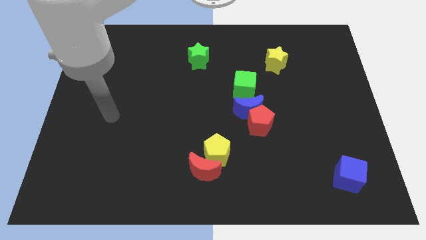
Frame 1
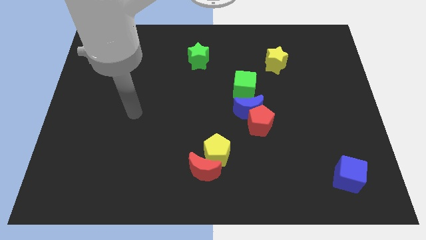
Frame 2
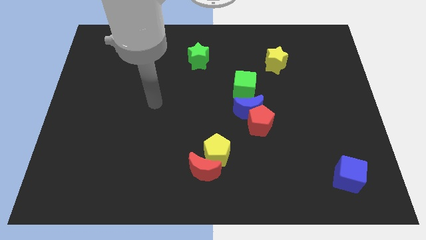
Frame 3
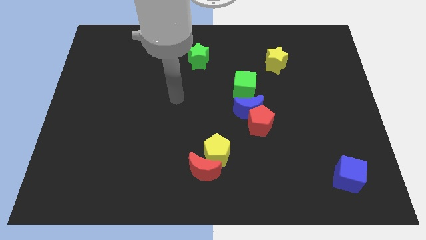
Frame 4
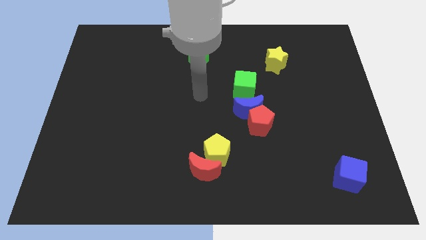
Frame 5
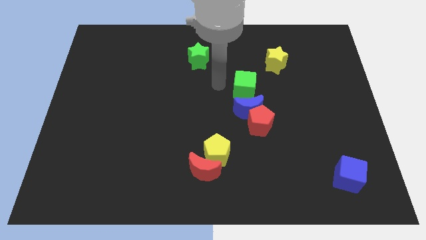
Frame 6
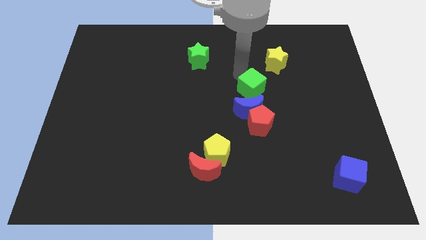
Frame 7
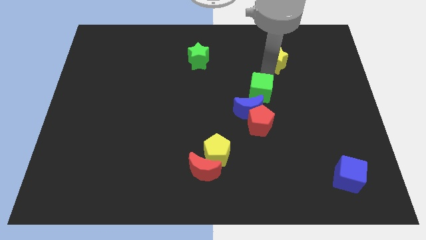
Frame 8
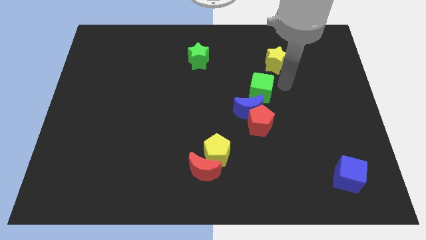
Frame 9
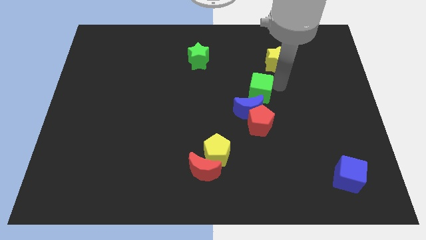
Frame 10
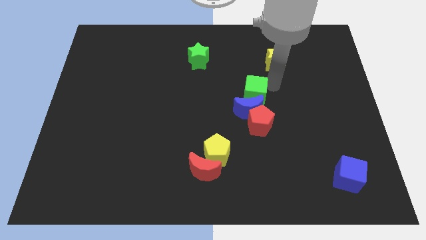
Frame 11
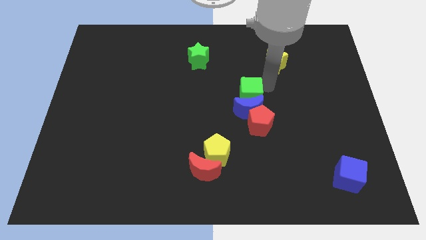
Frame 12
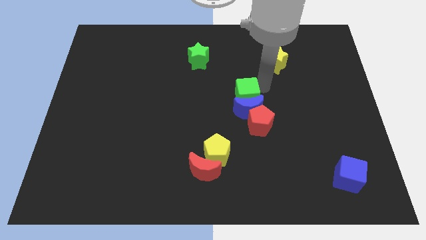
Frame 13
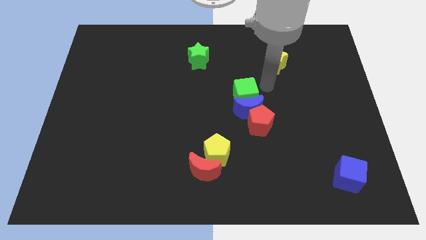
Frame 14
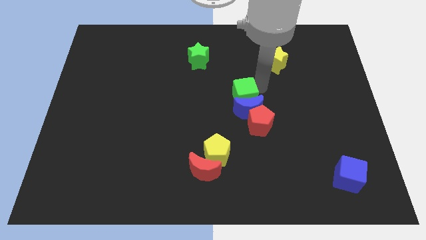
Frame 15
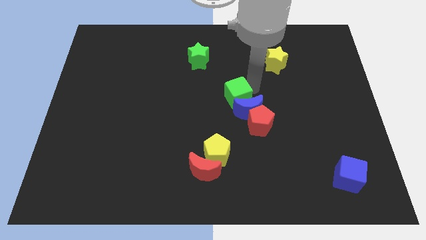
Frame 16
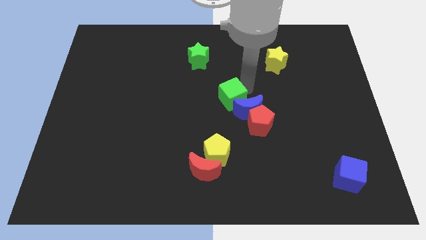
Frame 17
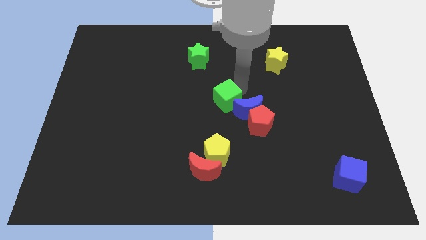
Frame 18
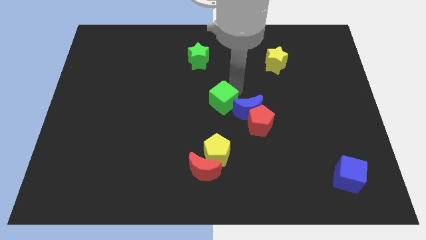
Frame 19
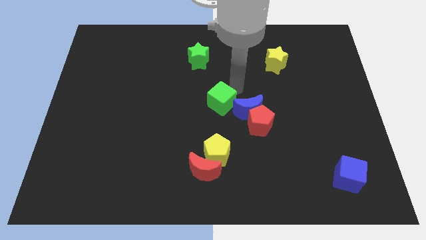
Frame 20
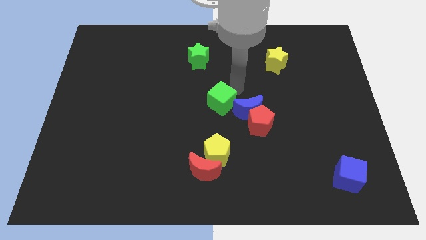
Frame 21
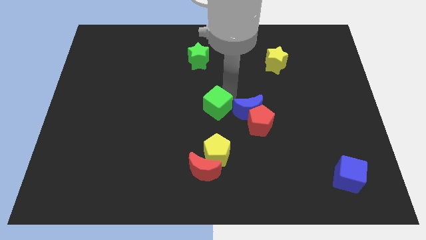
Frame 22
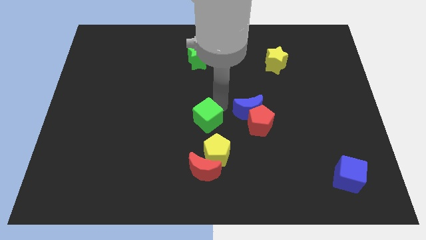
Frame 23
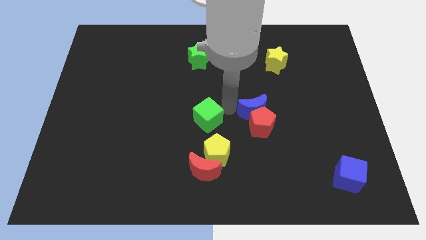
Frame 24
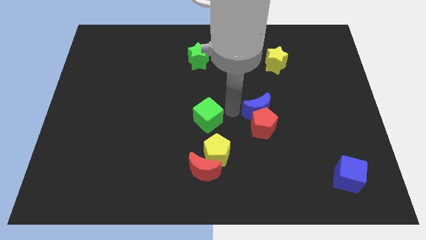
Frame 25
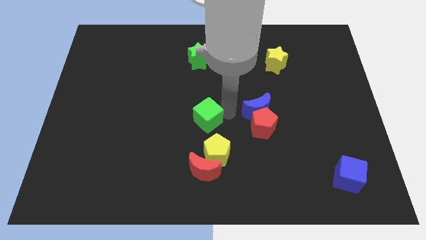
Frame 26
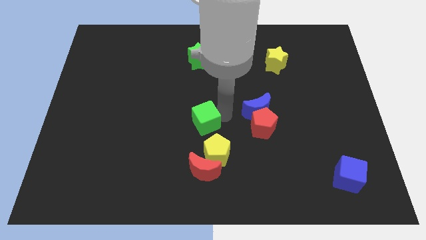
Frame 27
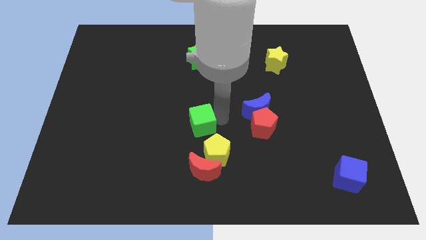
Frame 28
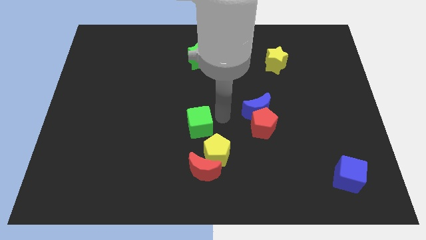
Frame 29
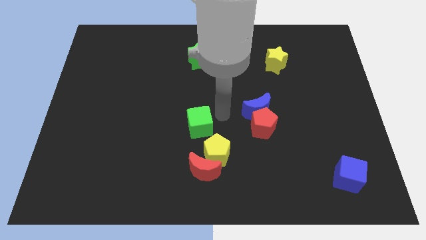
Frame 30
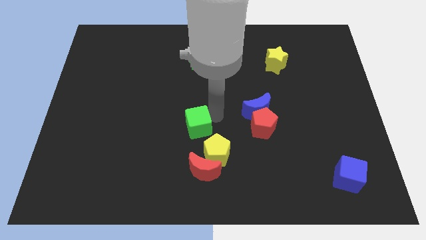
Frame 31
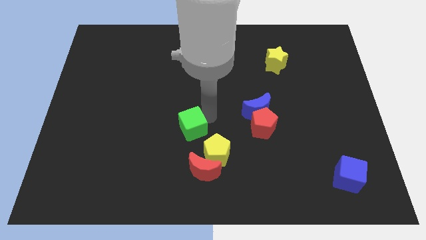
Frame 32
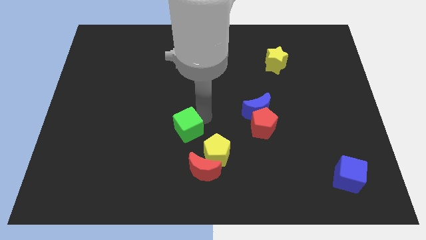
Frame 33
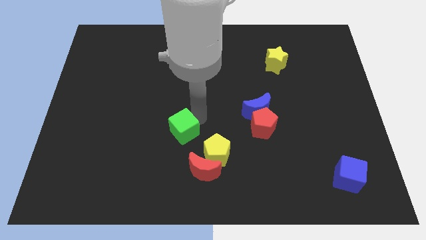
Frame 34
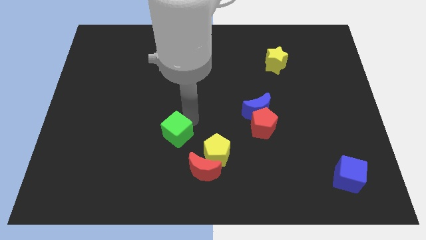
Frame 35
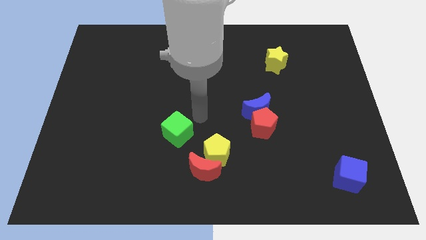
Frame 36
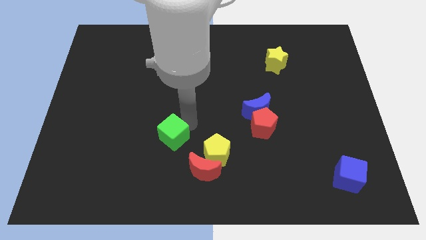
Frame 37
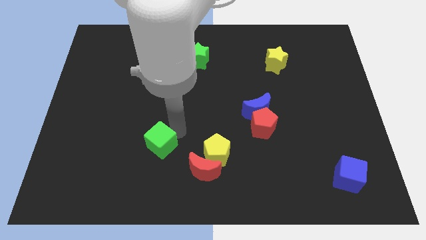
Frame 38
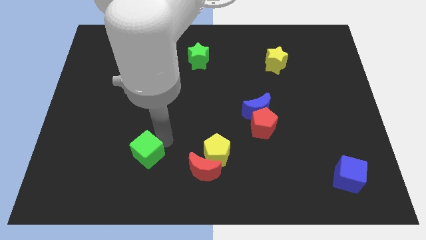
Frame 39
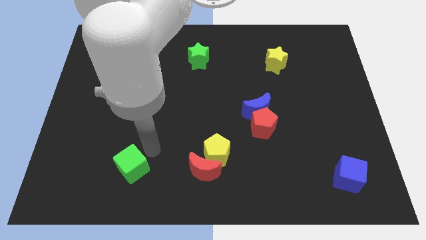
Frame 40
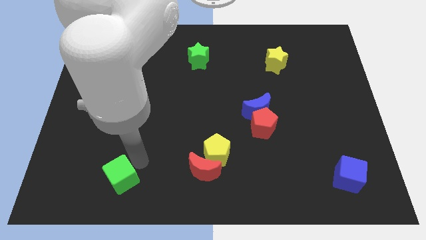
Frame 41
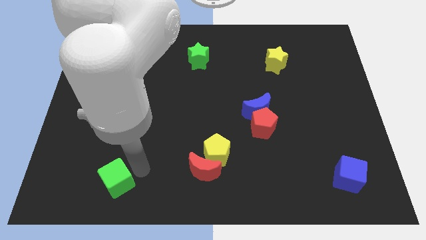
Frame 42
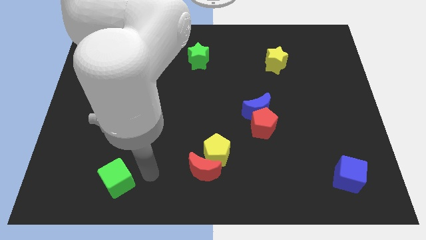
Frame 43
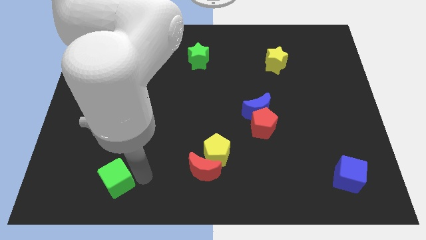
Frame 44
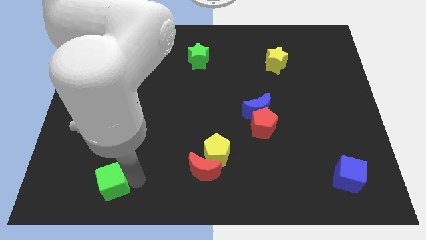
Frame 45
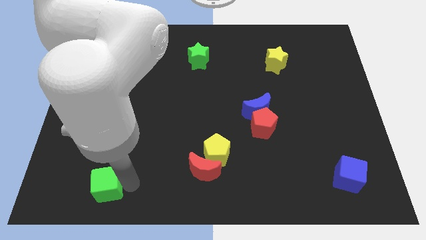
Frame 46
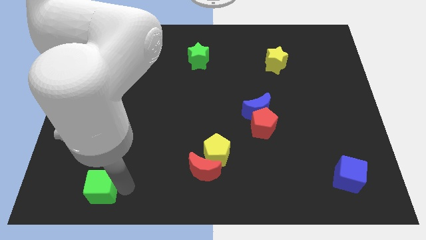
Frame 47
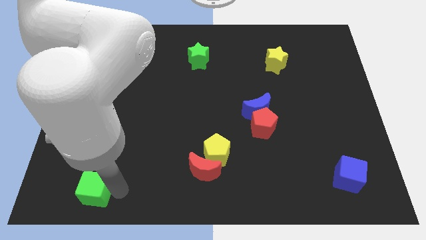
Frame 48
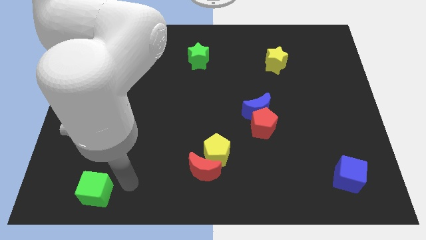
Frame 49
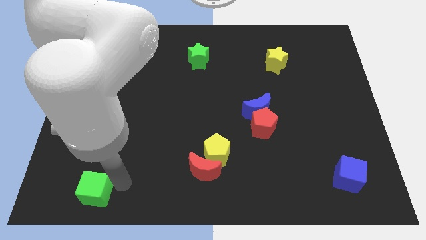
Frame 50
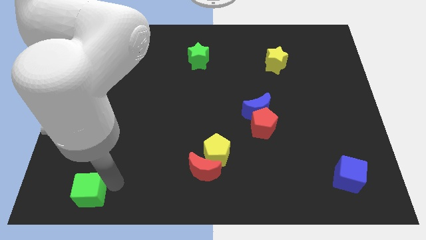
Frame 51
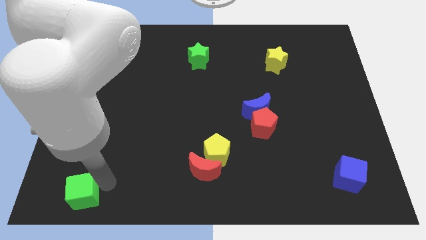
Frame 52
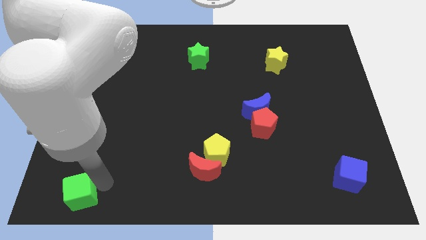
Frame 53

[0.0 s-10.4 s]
slide the green cube to the bottom left corner

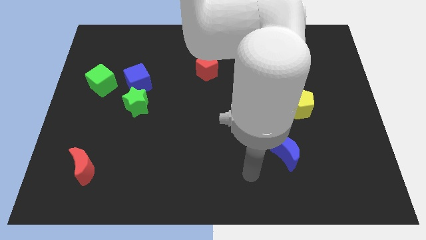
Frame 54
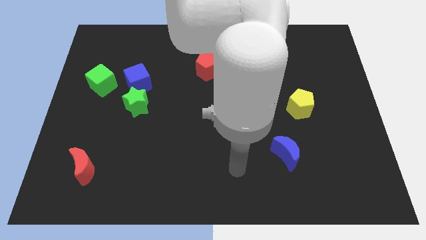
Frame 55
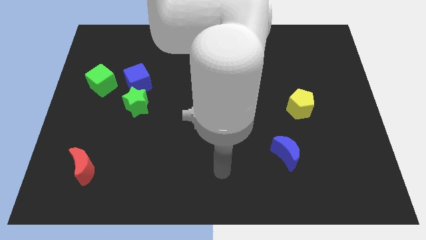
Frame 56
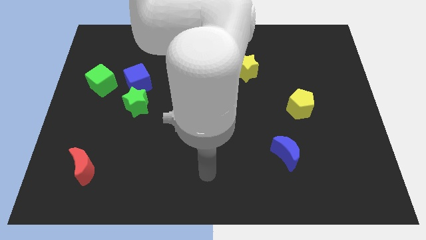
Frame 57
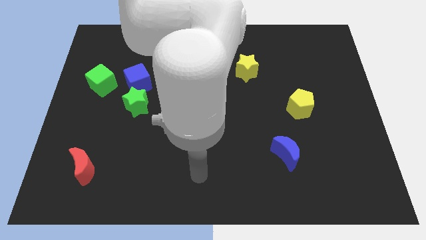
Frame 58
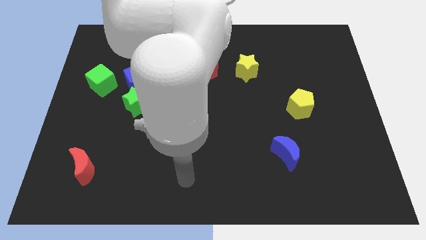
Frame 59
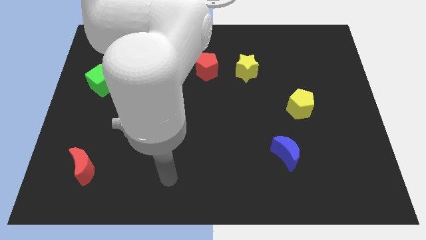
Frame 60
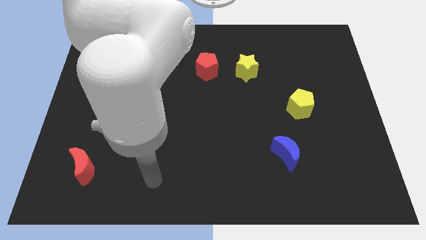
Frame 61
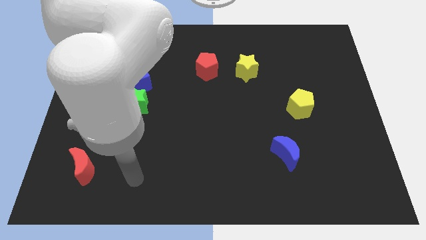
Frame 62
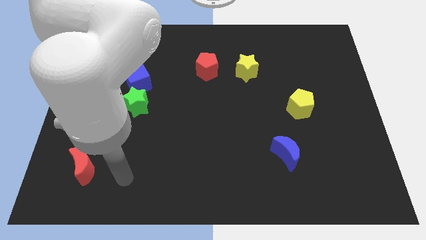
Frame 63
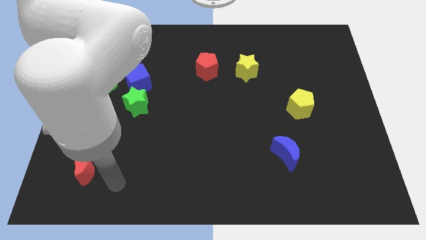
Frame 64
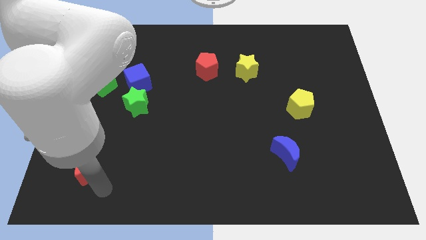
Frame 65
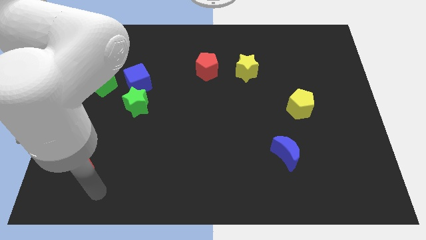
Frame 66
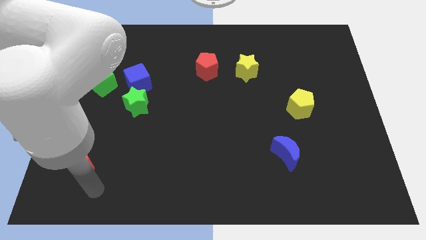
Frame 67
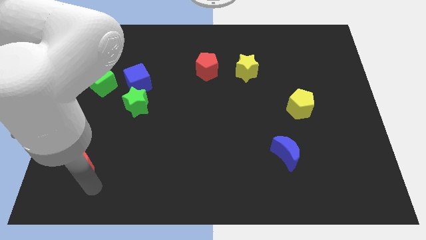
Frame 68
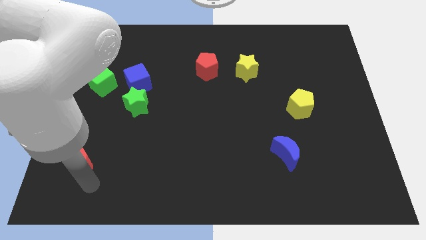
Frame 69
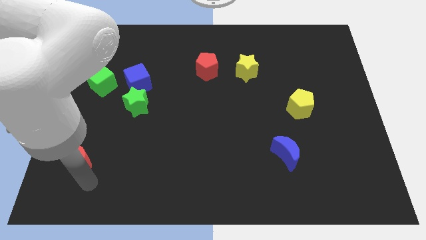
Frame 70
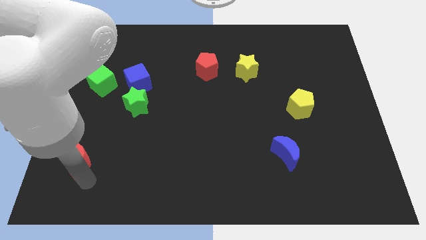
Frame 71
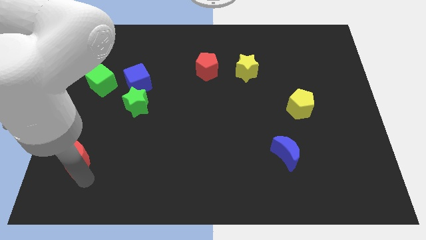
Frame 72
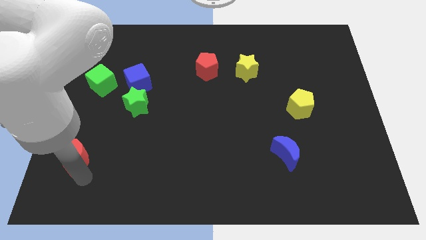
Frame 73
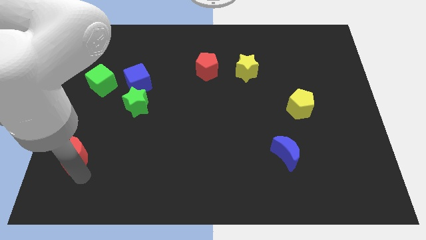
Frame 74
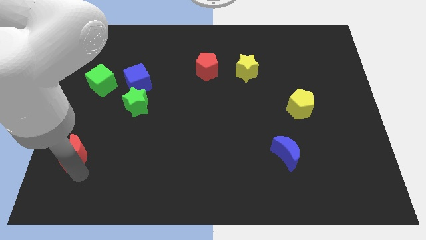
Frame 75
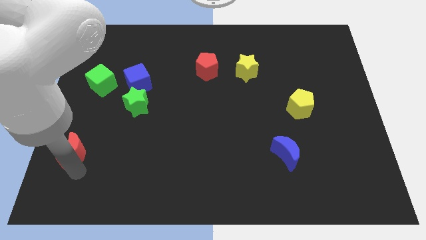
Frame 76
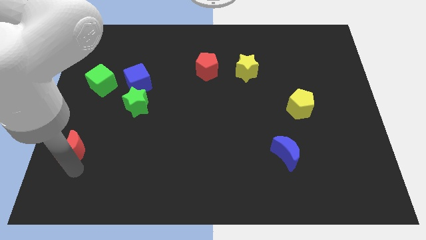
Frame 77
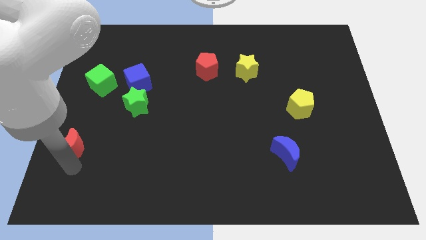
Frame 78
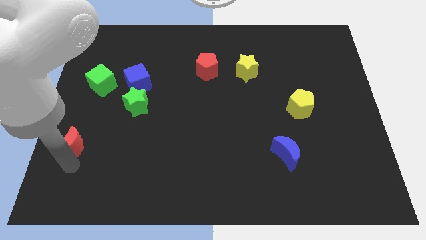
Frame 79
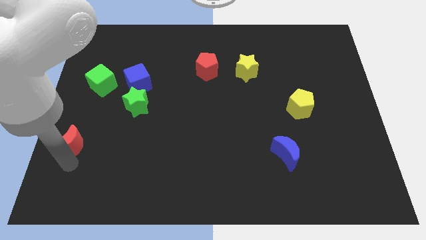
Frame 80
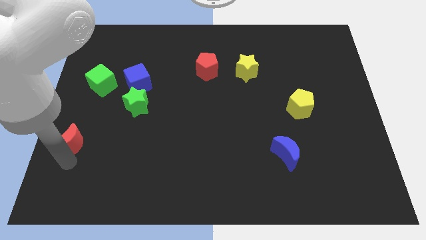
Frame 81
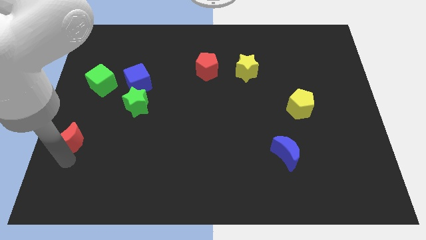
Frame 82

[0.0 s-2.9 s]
move the red moon to the left side
